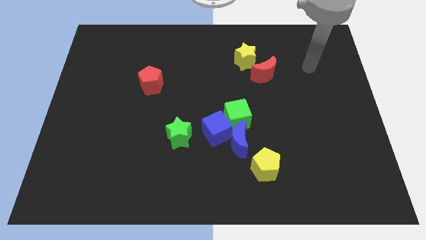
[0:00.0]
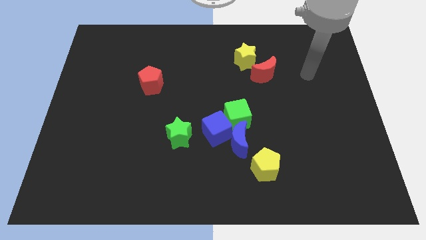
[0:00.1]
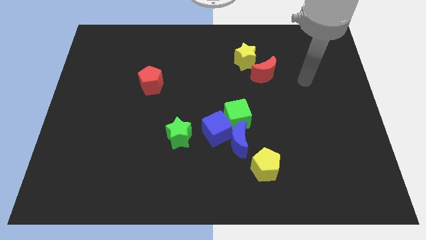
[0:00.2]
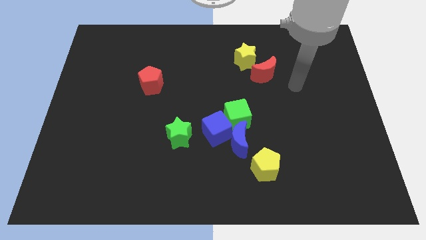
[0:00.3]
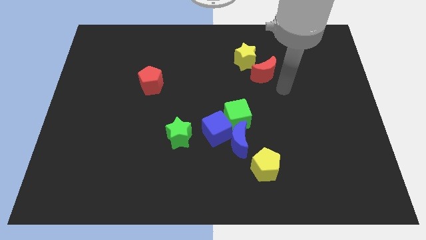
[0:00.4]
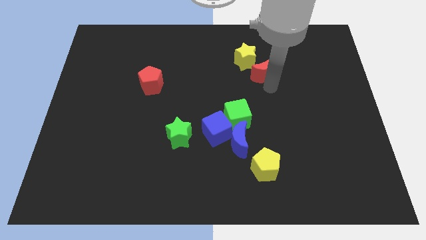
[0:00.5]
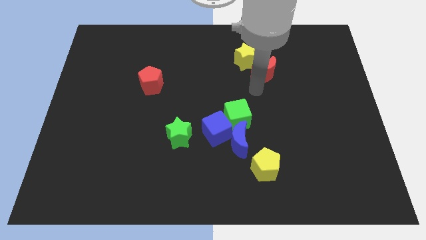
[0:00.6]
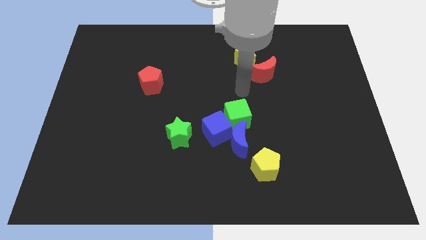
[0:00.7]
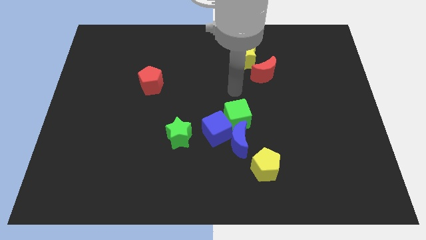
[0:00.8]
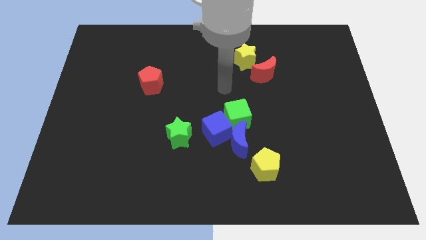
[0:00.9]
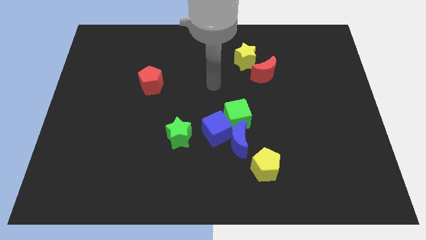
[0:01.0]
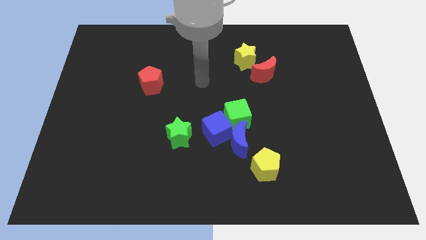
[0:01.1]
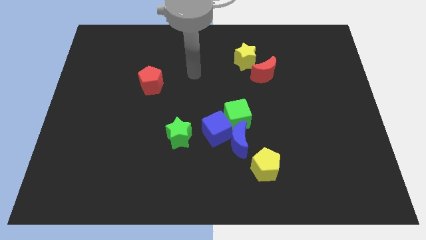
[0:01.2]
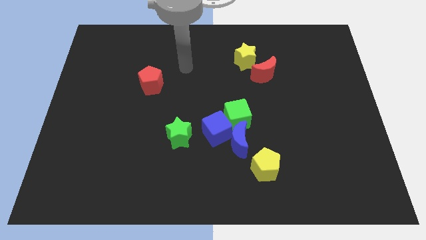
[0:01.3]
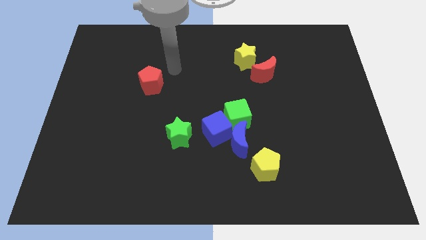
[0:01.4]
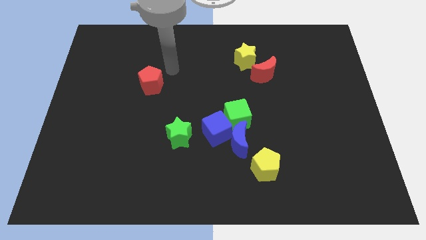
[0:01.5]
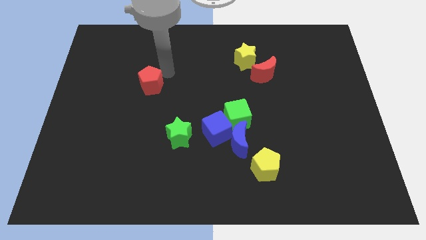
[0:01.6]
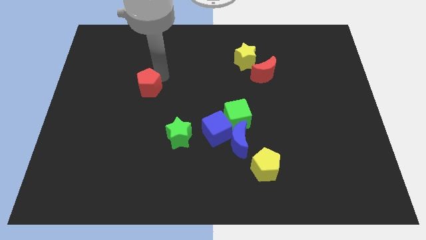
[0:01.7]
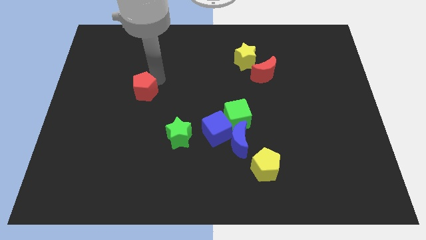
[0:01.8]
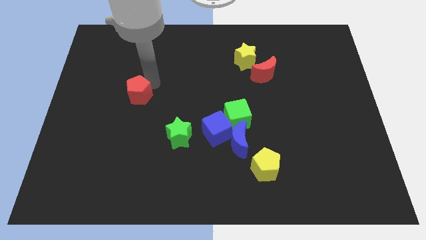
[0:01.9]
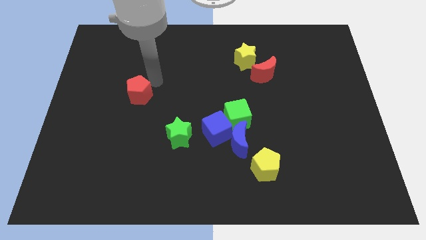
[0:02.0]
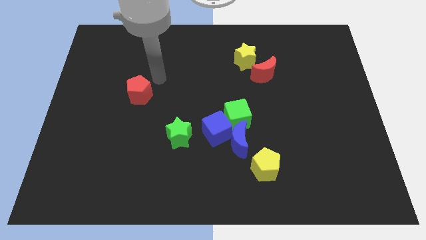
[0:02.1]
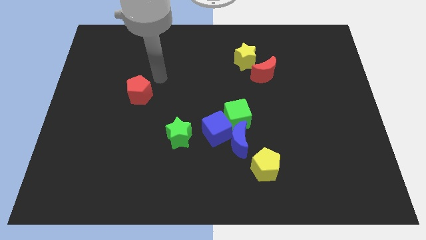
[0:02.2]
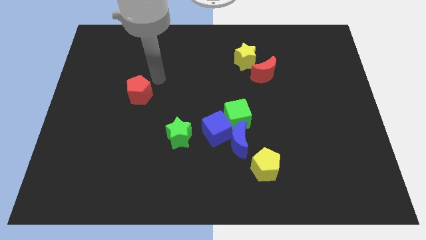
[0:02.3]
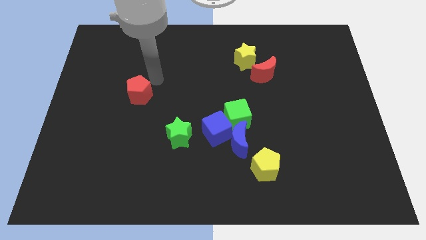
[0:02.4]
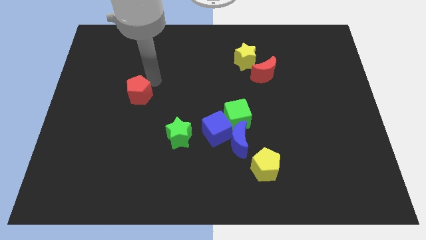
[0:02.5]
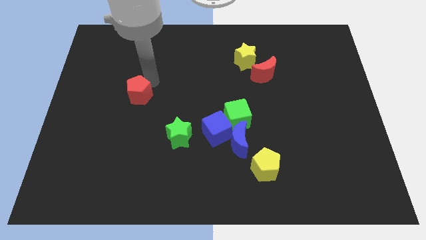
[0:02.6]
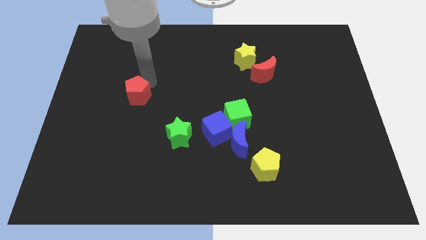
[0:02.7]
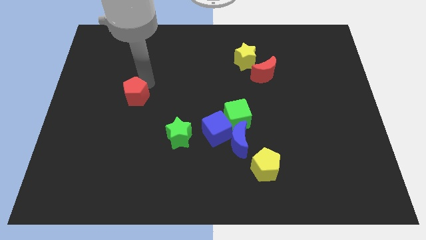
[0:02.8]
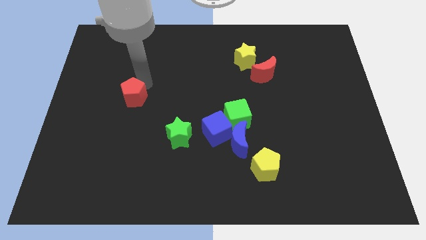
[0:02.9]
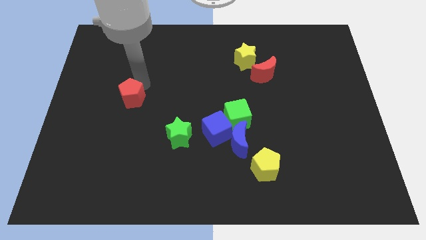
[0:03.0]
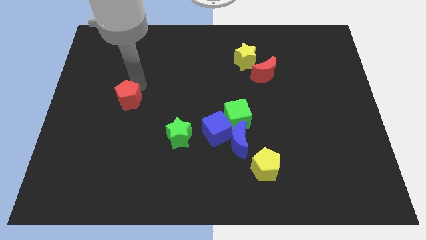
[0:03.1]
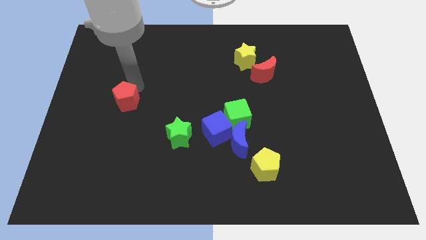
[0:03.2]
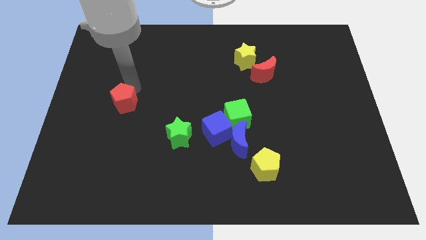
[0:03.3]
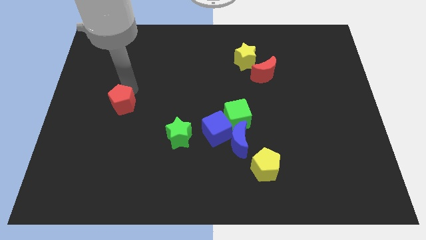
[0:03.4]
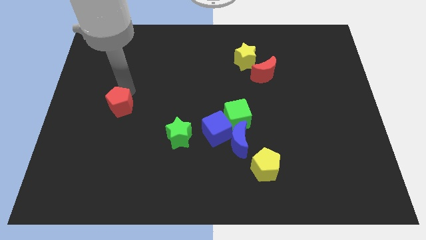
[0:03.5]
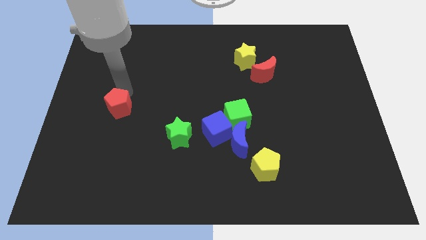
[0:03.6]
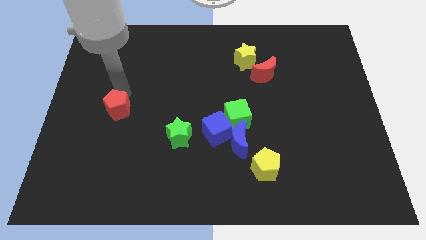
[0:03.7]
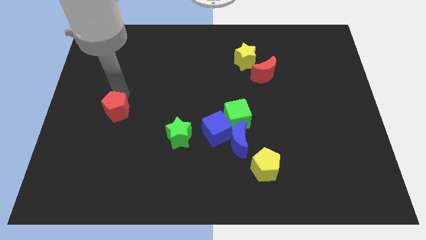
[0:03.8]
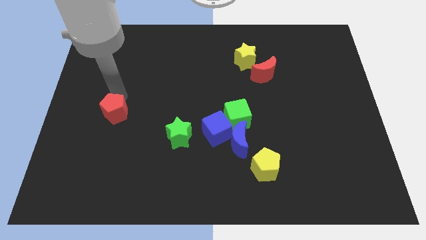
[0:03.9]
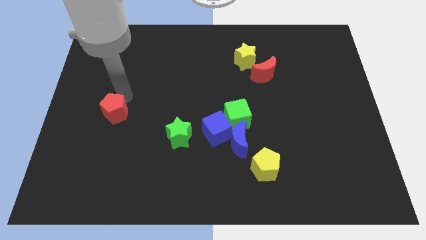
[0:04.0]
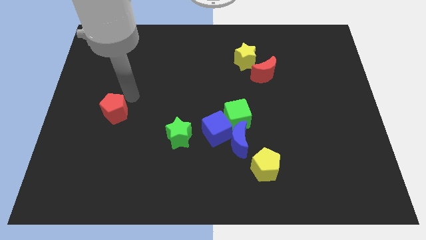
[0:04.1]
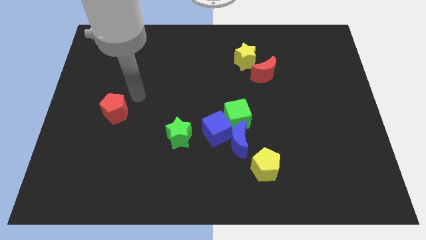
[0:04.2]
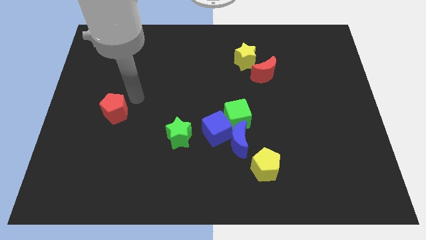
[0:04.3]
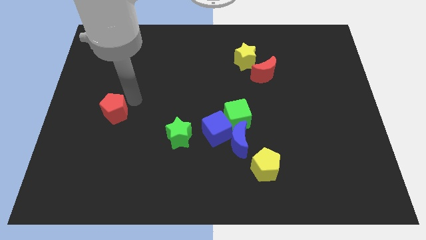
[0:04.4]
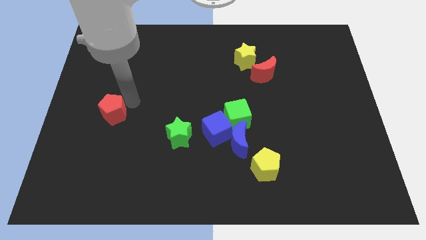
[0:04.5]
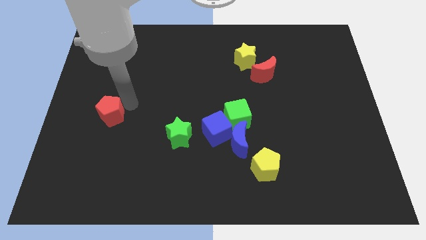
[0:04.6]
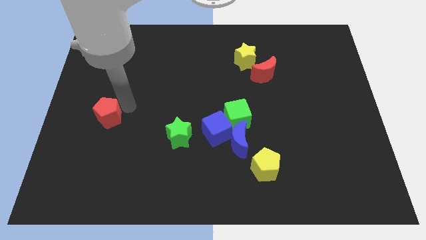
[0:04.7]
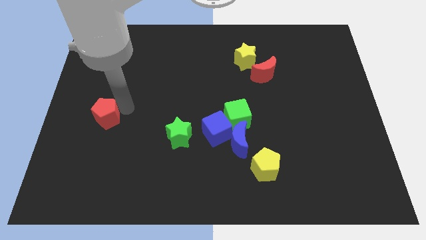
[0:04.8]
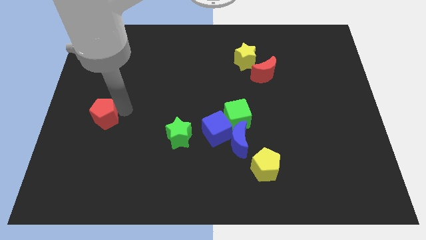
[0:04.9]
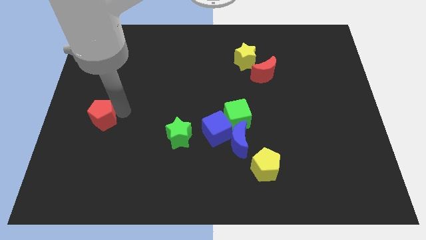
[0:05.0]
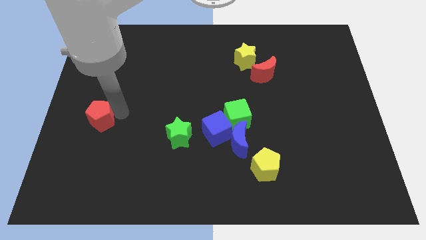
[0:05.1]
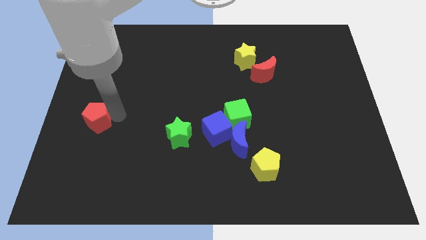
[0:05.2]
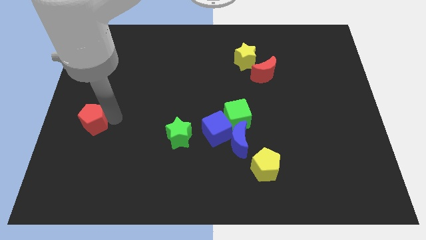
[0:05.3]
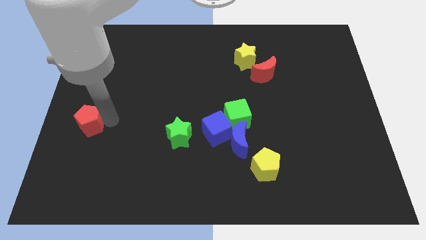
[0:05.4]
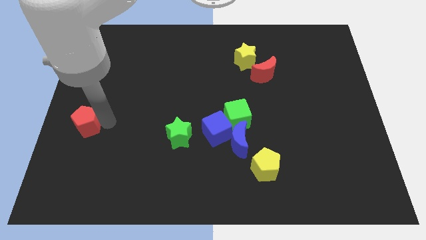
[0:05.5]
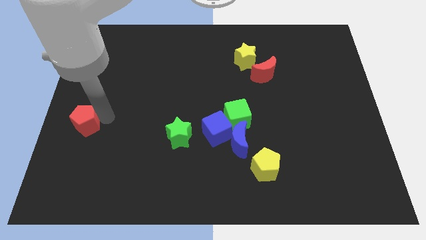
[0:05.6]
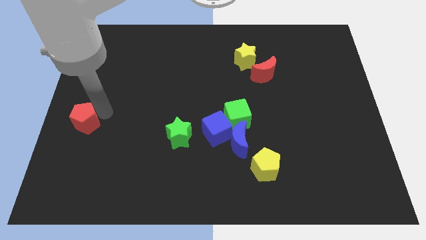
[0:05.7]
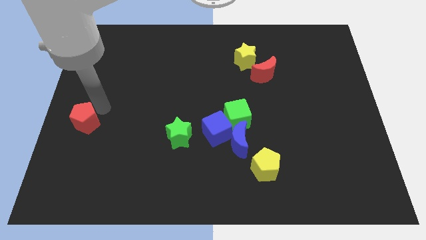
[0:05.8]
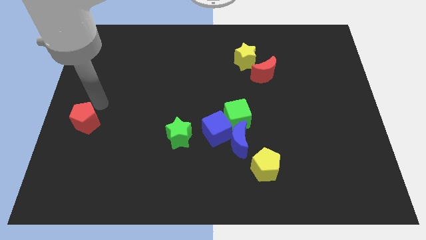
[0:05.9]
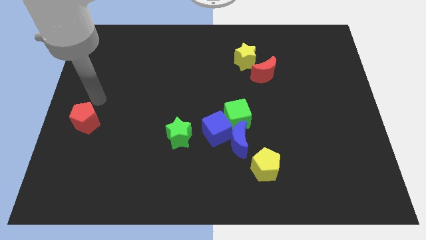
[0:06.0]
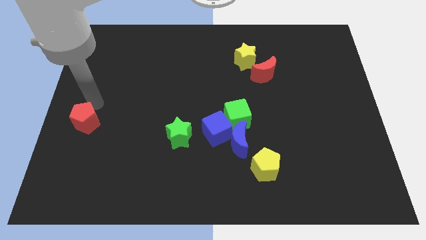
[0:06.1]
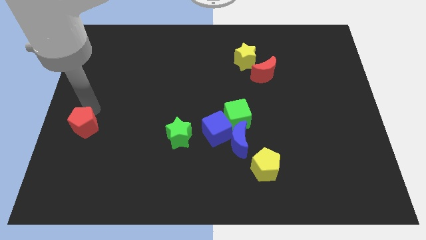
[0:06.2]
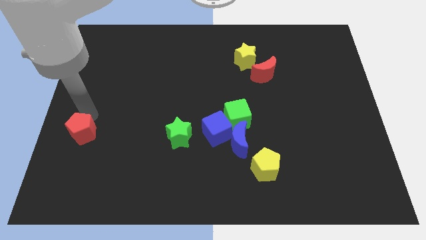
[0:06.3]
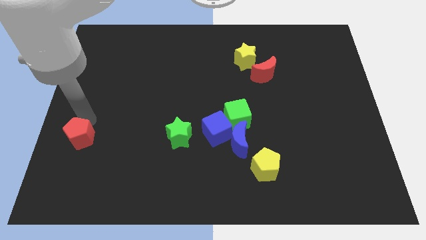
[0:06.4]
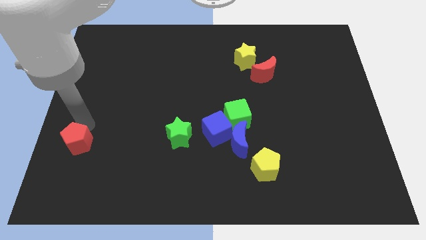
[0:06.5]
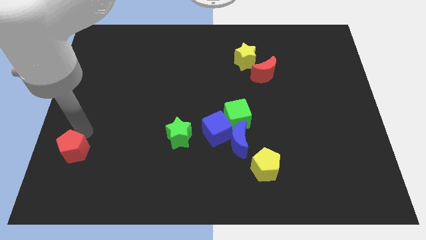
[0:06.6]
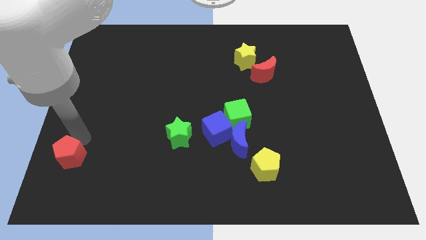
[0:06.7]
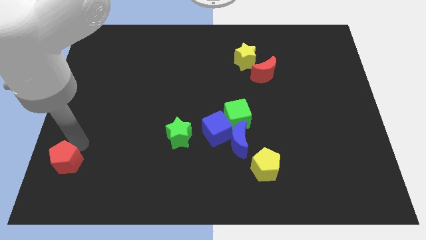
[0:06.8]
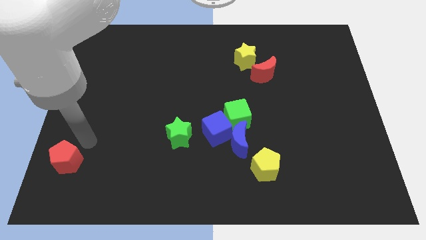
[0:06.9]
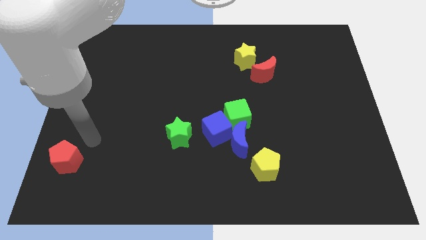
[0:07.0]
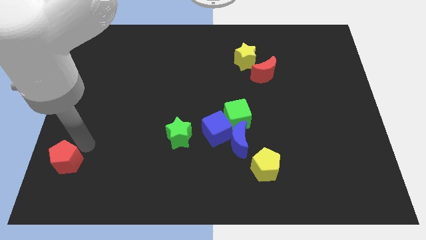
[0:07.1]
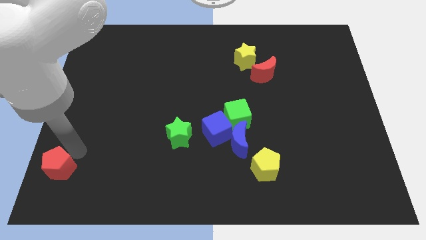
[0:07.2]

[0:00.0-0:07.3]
slide the red pentagon to the bottom left of the board
